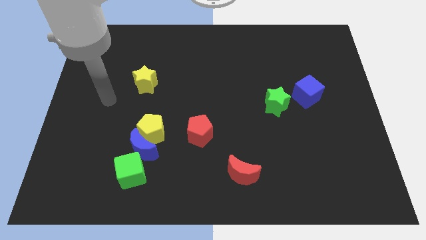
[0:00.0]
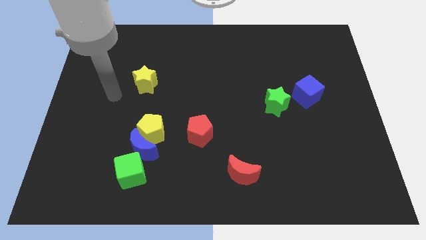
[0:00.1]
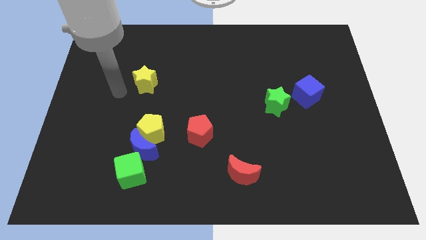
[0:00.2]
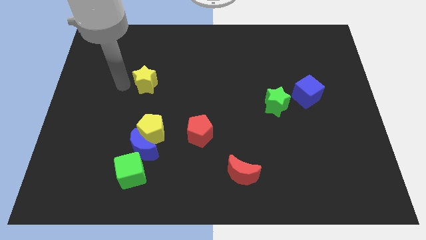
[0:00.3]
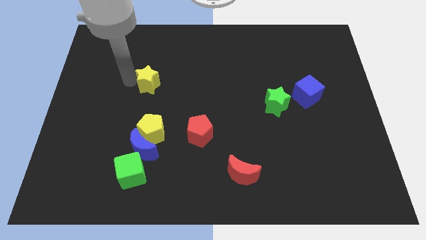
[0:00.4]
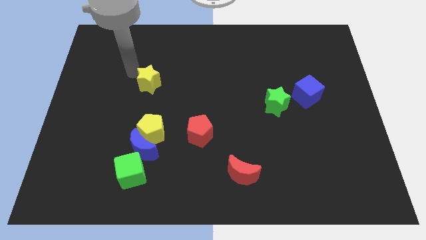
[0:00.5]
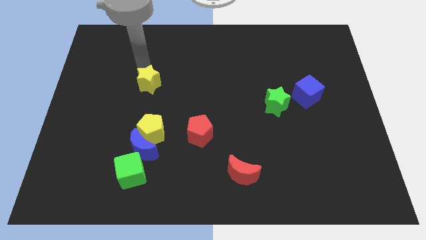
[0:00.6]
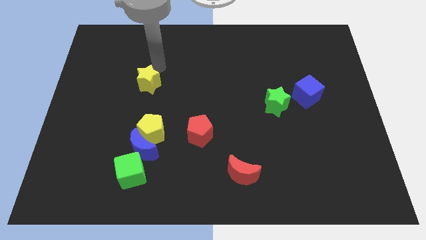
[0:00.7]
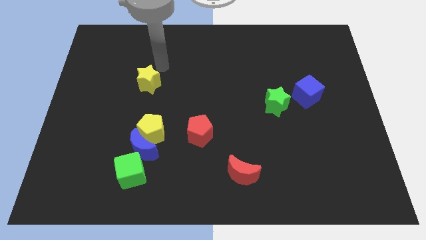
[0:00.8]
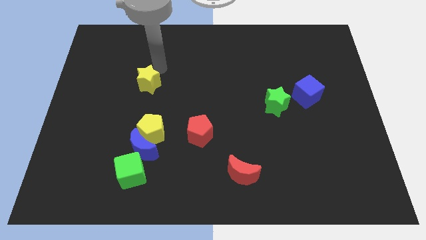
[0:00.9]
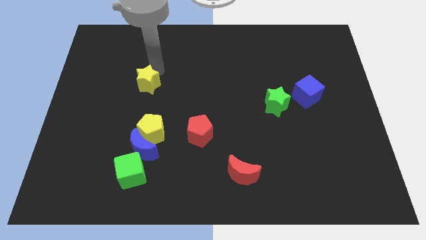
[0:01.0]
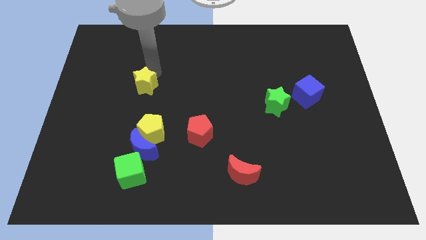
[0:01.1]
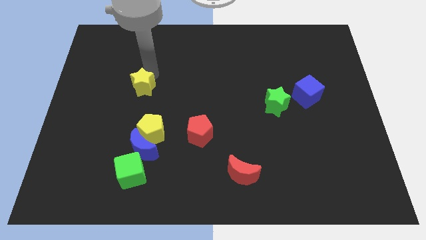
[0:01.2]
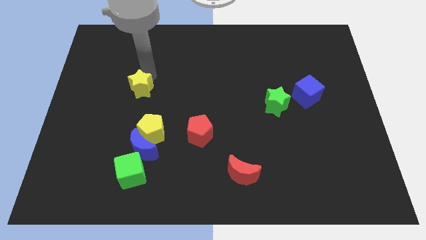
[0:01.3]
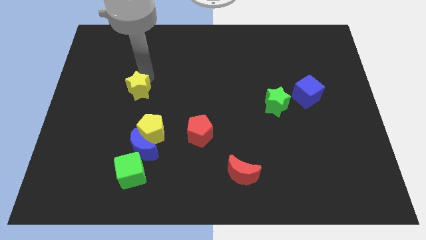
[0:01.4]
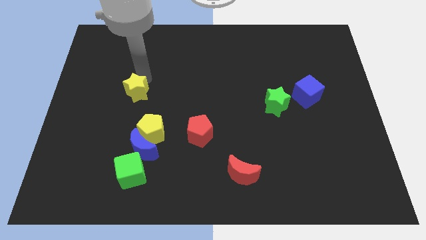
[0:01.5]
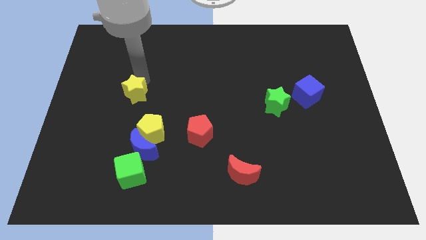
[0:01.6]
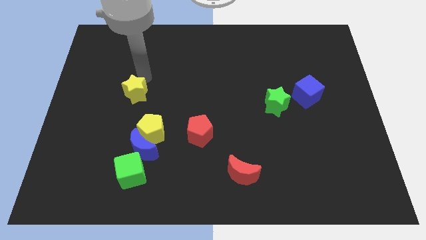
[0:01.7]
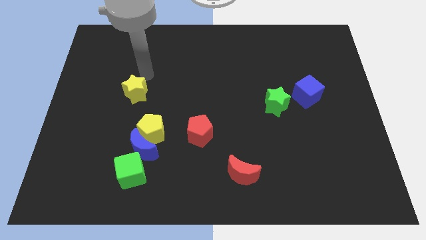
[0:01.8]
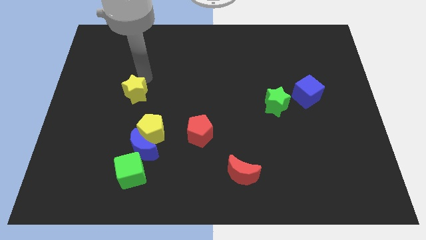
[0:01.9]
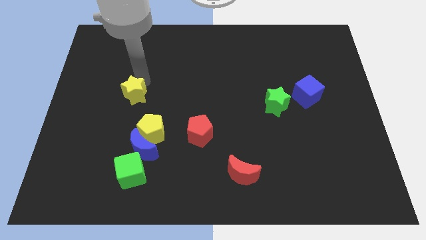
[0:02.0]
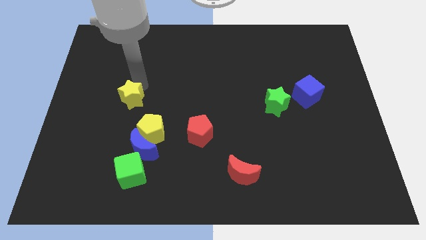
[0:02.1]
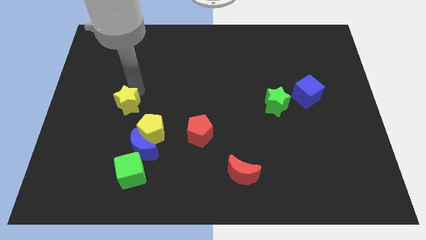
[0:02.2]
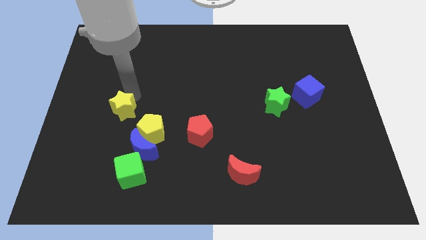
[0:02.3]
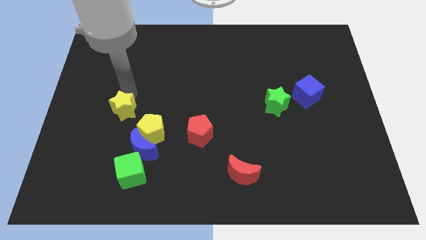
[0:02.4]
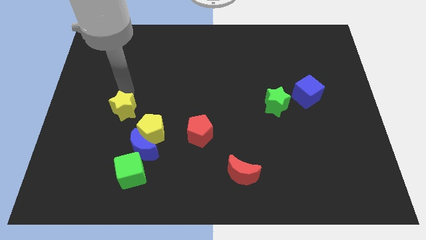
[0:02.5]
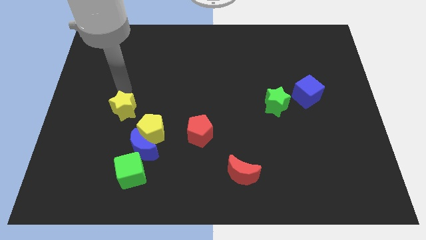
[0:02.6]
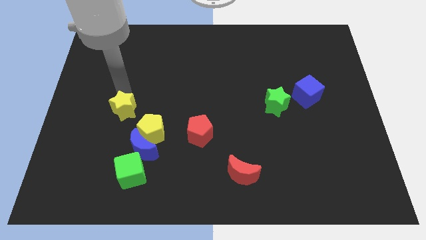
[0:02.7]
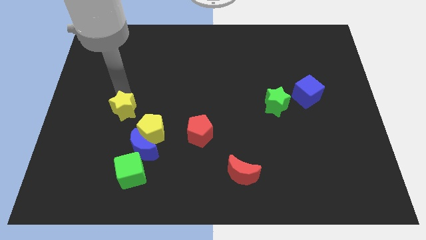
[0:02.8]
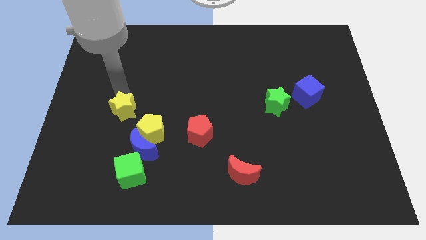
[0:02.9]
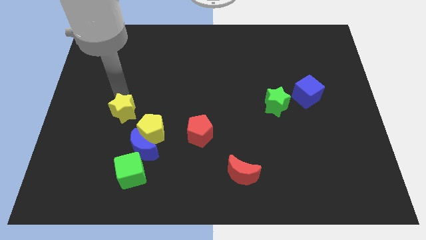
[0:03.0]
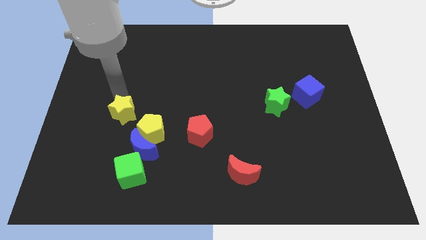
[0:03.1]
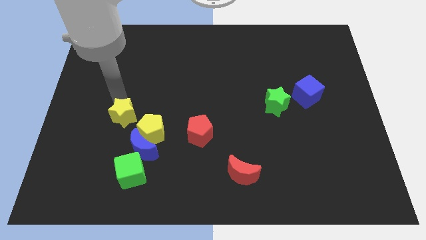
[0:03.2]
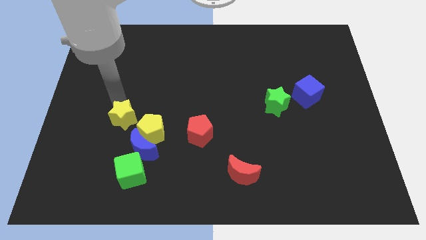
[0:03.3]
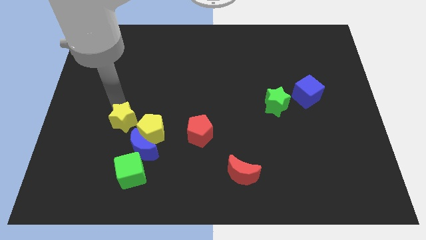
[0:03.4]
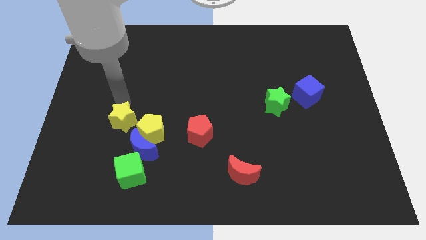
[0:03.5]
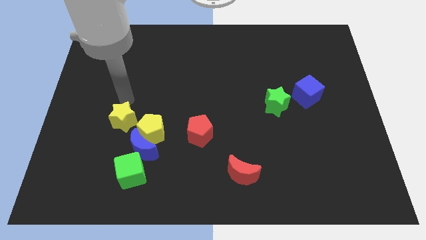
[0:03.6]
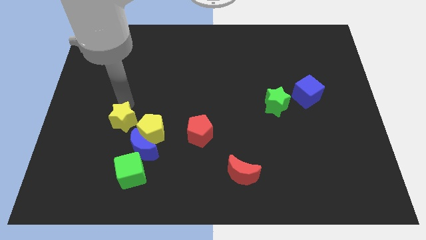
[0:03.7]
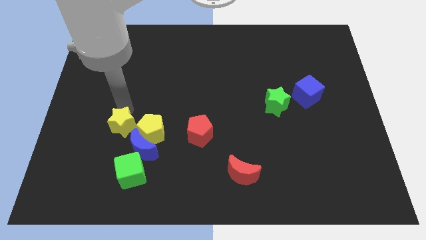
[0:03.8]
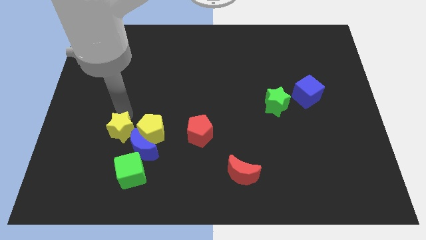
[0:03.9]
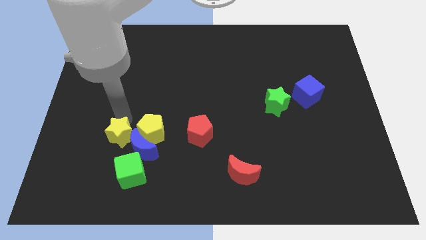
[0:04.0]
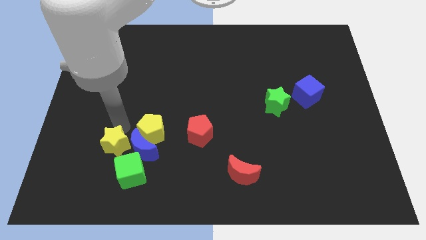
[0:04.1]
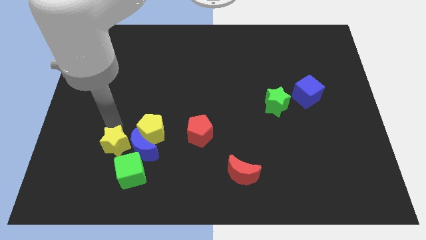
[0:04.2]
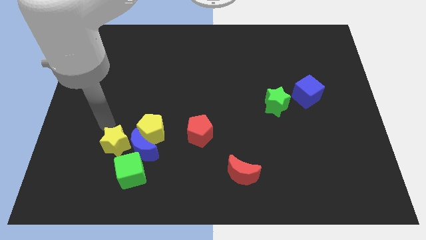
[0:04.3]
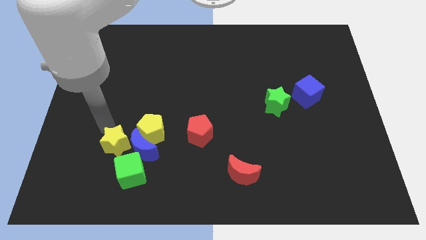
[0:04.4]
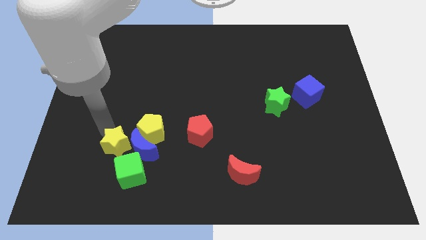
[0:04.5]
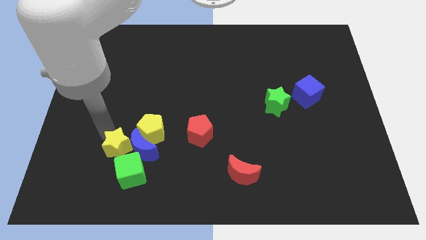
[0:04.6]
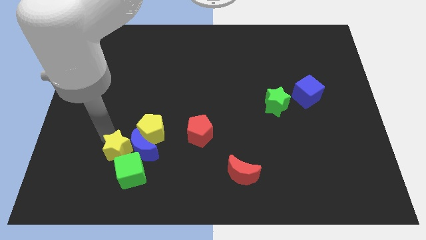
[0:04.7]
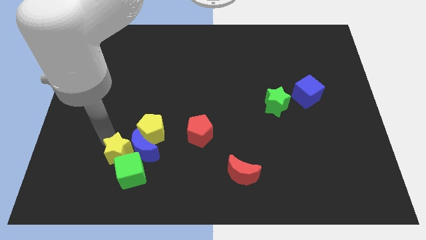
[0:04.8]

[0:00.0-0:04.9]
slide the yellow star next to the green cube

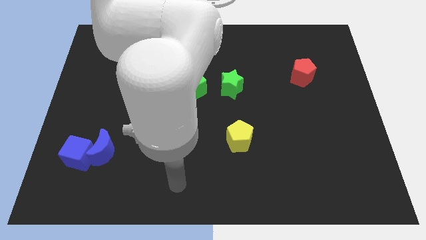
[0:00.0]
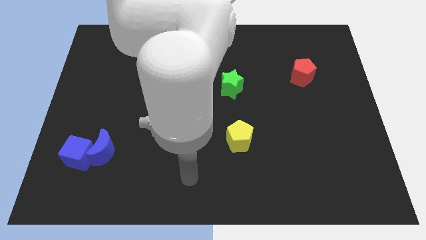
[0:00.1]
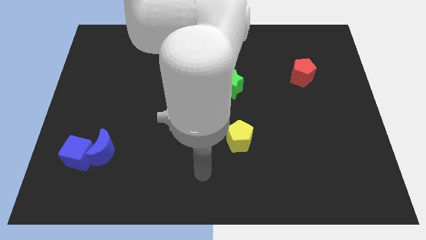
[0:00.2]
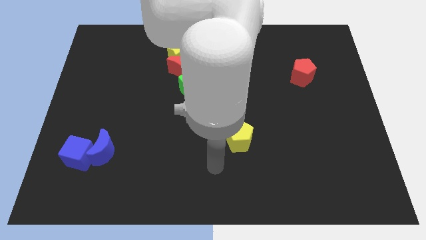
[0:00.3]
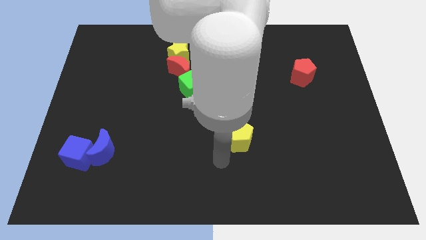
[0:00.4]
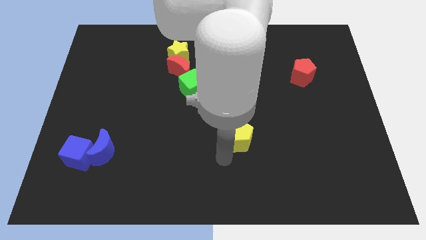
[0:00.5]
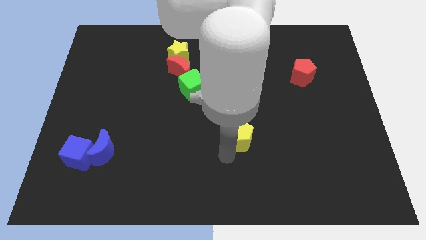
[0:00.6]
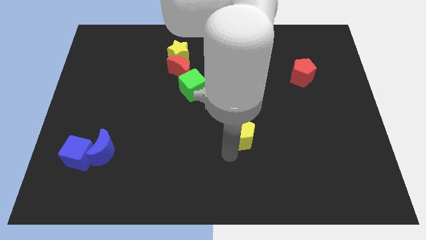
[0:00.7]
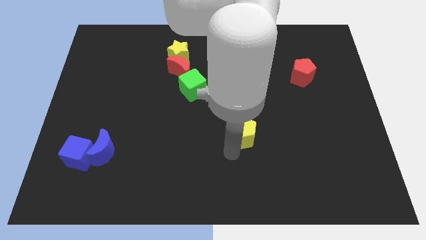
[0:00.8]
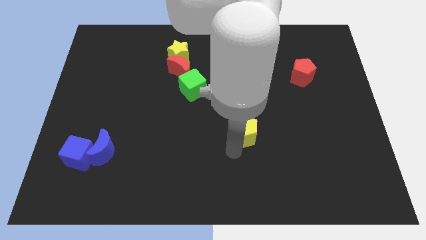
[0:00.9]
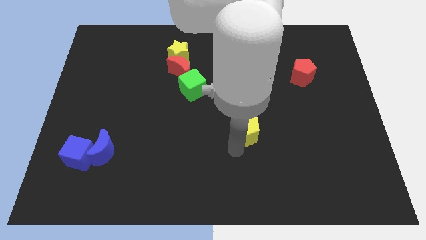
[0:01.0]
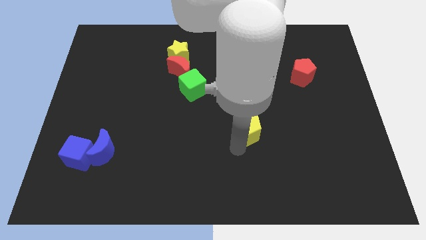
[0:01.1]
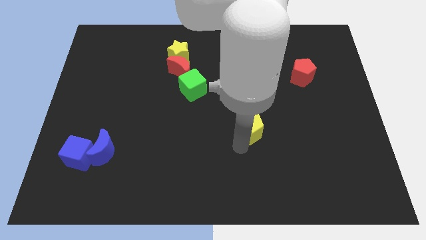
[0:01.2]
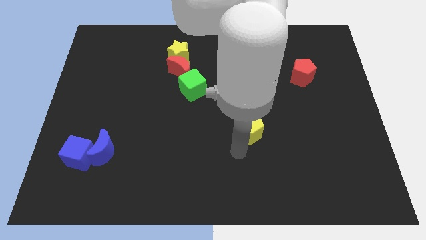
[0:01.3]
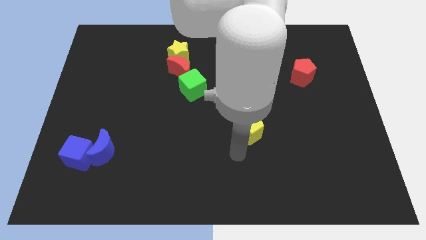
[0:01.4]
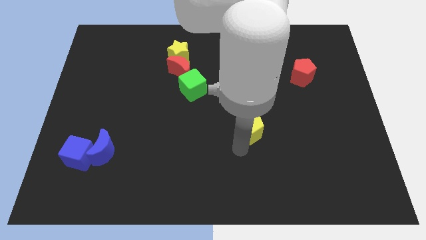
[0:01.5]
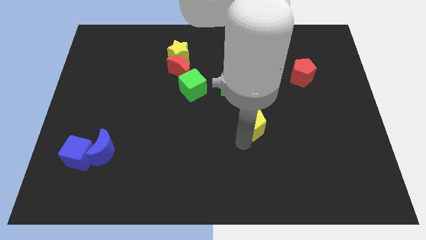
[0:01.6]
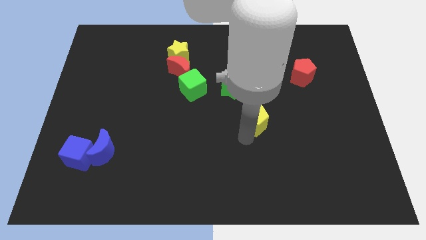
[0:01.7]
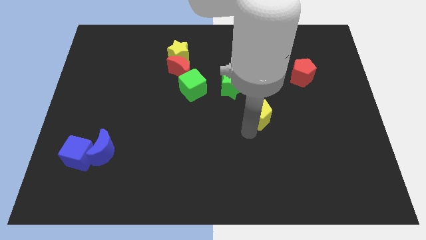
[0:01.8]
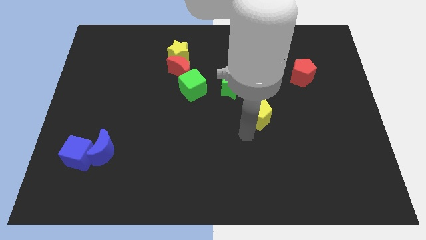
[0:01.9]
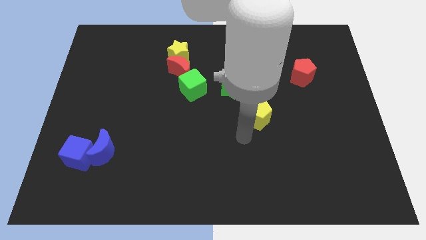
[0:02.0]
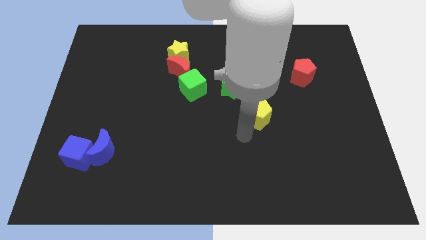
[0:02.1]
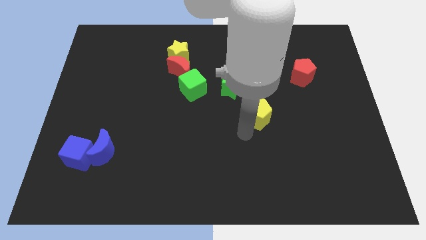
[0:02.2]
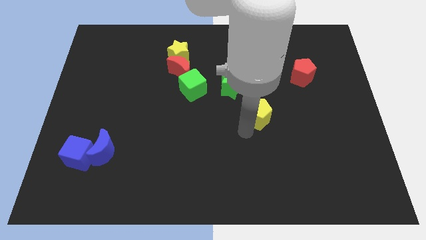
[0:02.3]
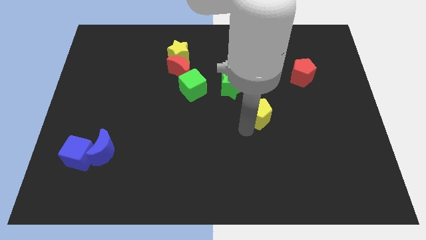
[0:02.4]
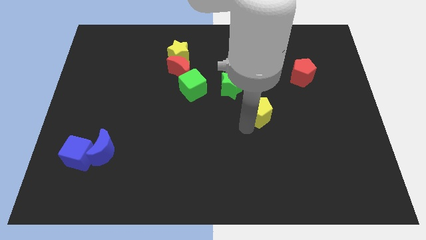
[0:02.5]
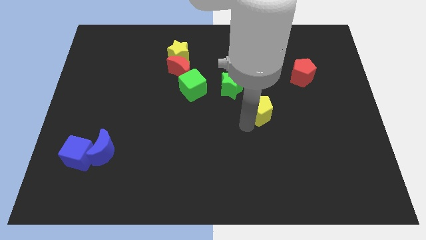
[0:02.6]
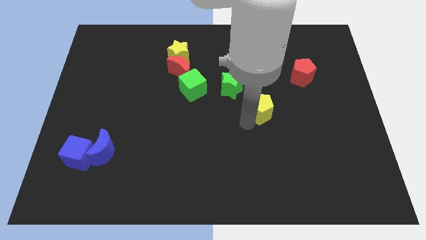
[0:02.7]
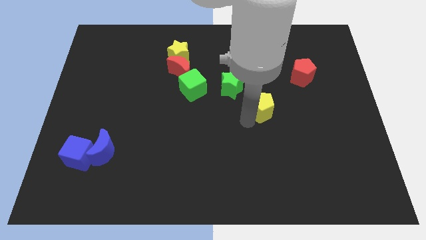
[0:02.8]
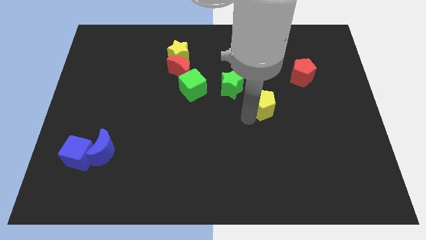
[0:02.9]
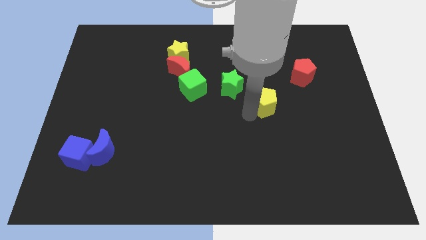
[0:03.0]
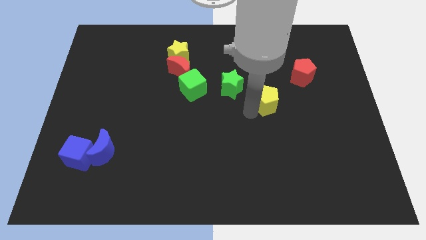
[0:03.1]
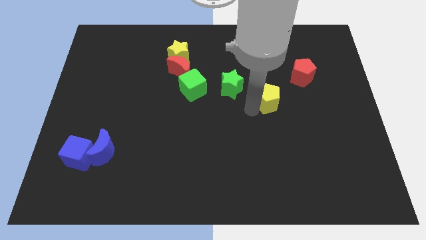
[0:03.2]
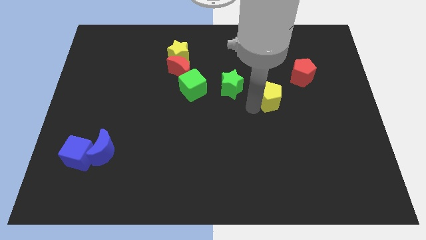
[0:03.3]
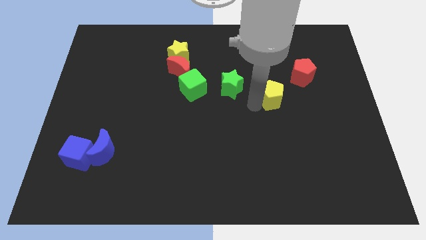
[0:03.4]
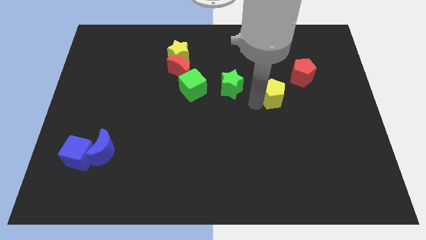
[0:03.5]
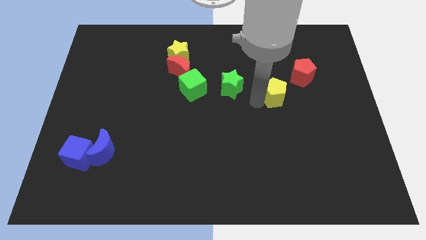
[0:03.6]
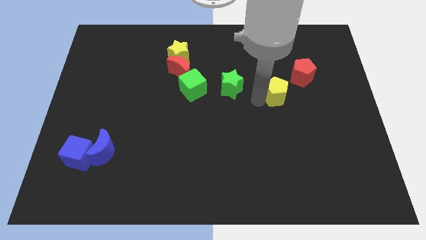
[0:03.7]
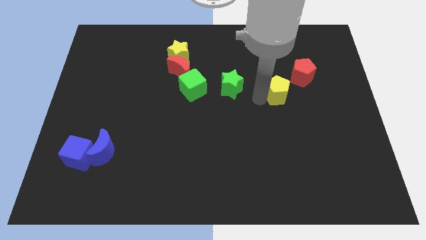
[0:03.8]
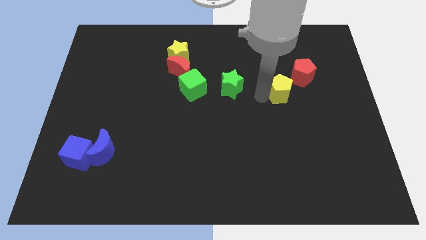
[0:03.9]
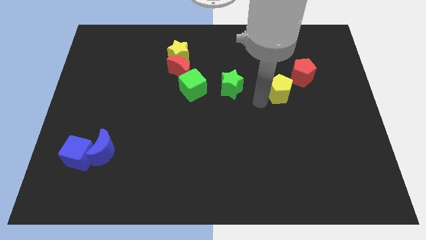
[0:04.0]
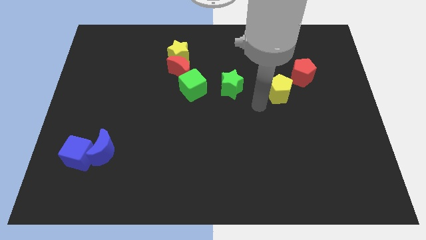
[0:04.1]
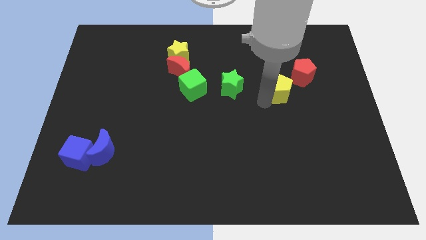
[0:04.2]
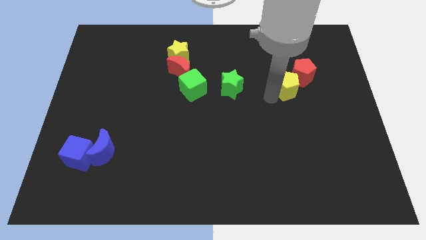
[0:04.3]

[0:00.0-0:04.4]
move the yellow pentagon to the red pentagon
